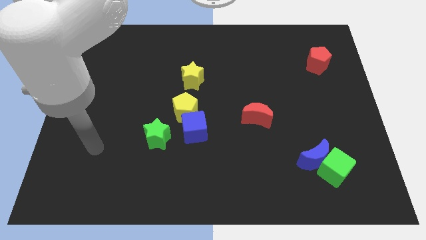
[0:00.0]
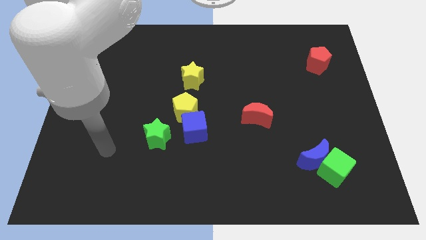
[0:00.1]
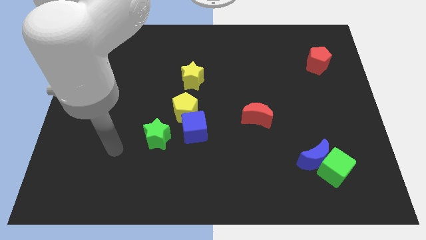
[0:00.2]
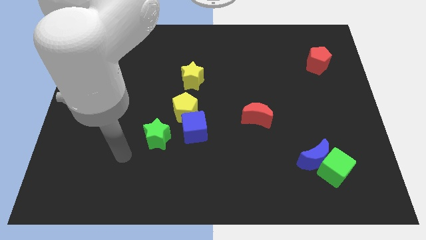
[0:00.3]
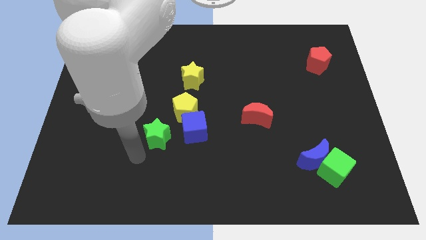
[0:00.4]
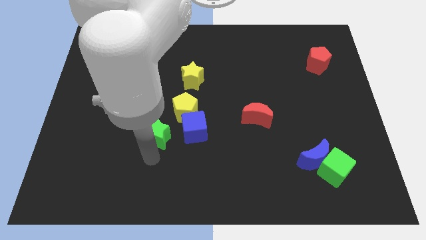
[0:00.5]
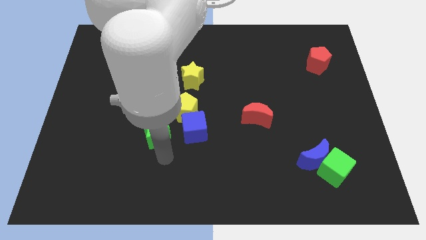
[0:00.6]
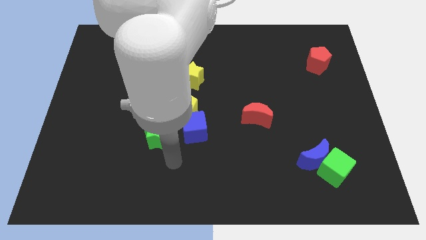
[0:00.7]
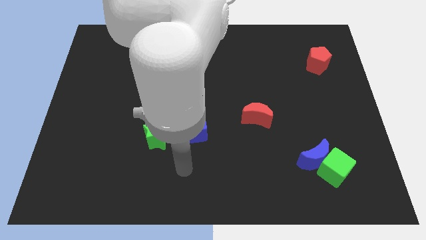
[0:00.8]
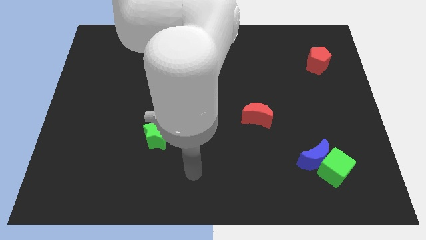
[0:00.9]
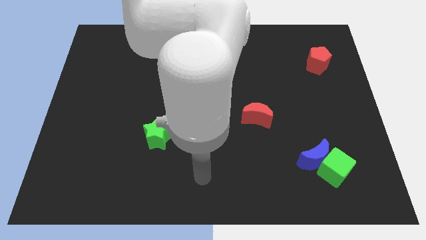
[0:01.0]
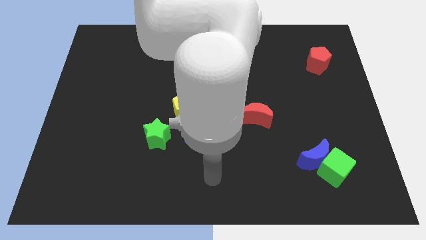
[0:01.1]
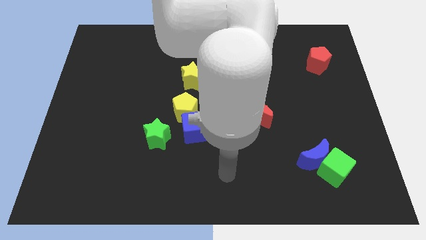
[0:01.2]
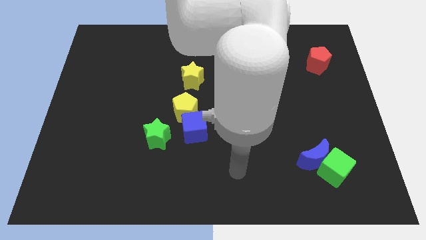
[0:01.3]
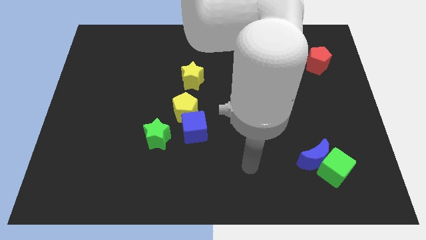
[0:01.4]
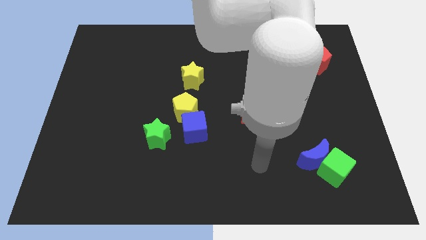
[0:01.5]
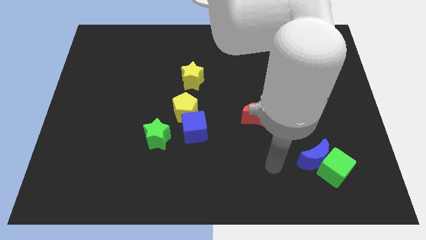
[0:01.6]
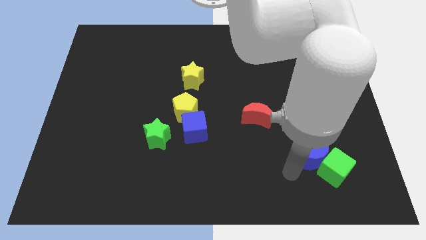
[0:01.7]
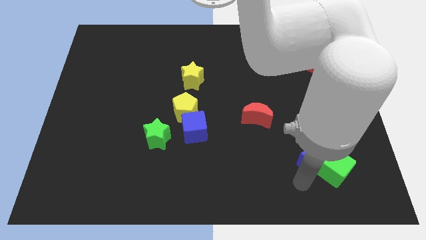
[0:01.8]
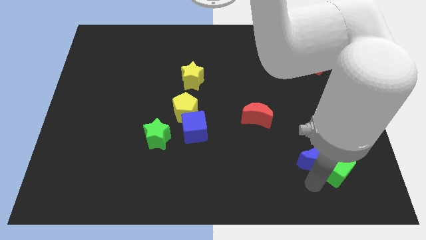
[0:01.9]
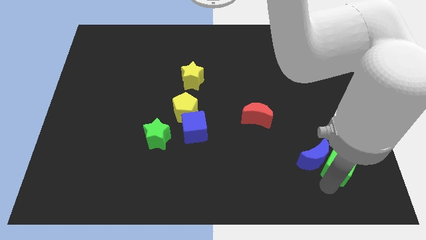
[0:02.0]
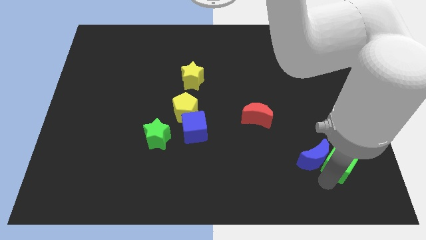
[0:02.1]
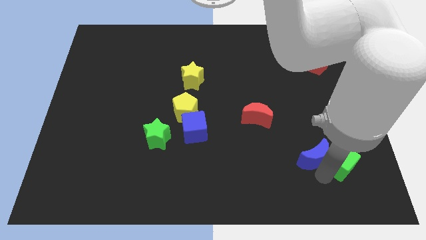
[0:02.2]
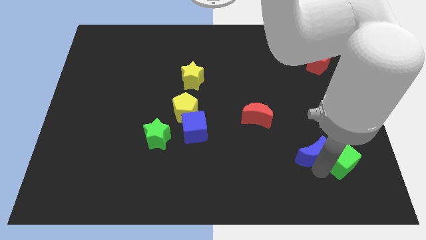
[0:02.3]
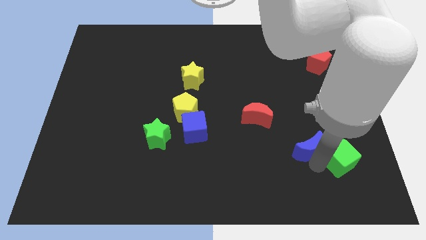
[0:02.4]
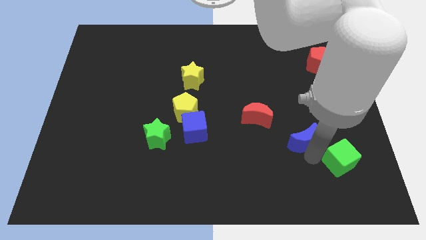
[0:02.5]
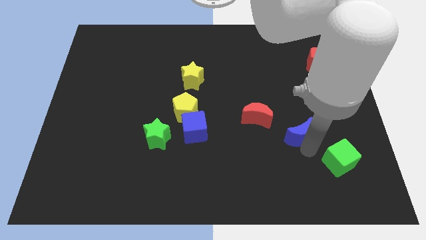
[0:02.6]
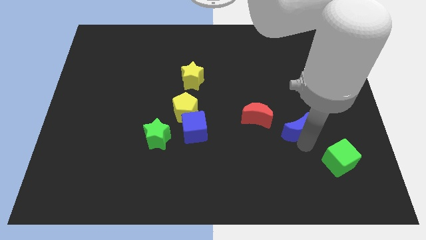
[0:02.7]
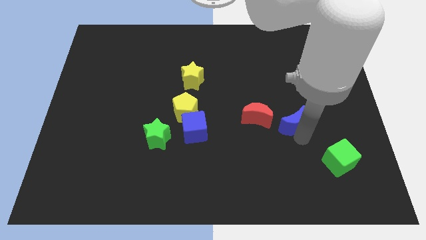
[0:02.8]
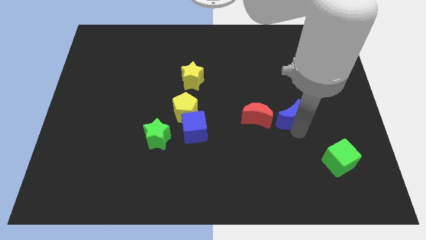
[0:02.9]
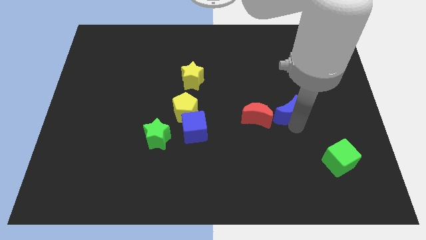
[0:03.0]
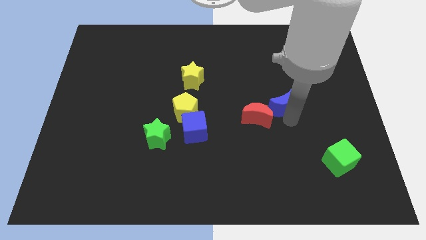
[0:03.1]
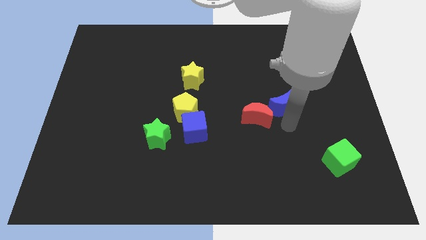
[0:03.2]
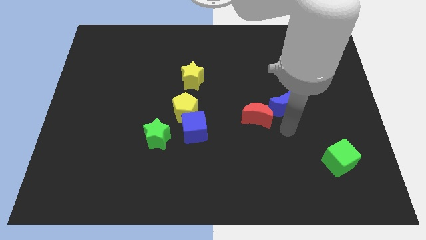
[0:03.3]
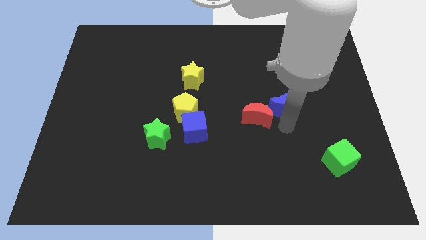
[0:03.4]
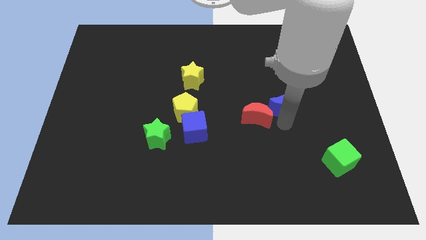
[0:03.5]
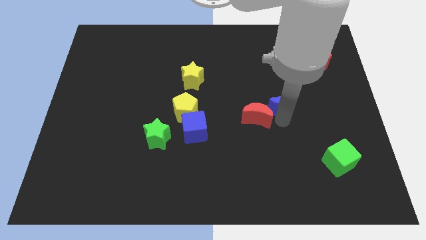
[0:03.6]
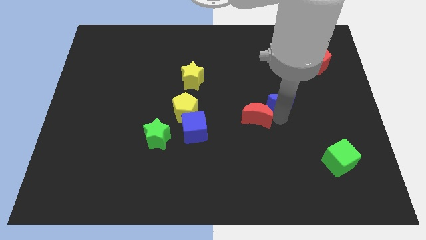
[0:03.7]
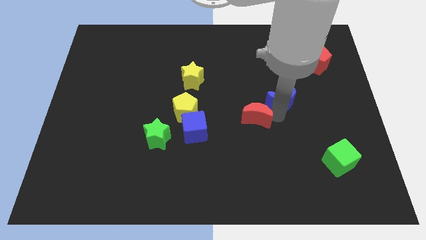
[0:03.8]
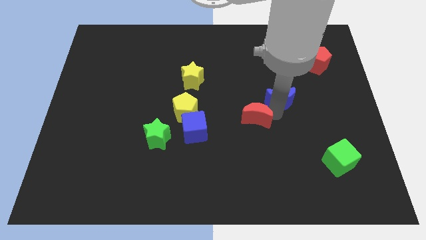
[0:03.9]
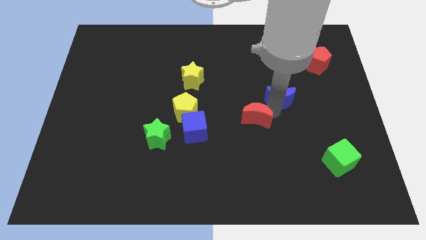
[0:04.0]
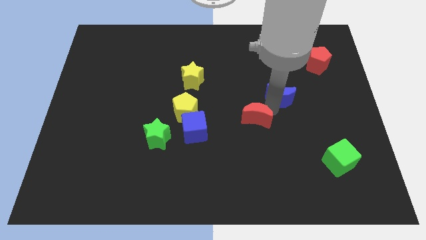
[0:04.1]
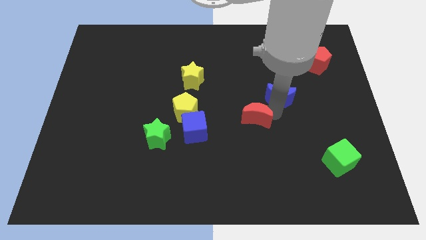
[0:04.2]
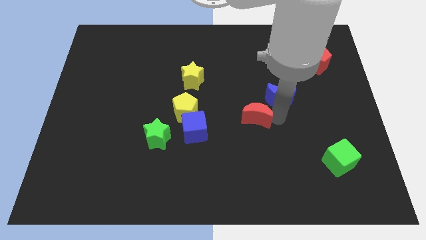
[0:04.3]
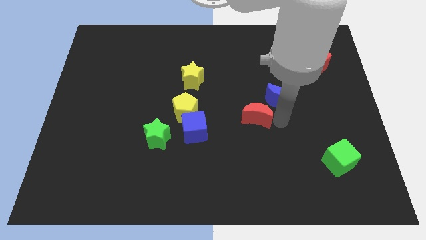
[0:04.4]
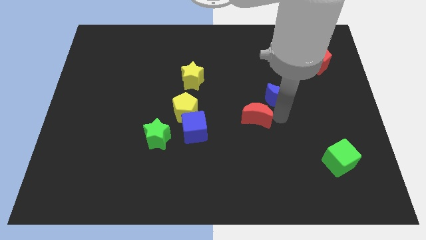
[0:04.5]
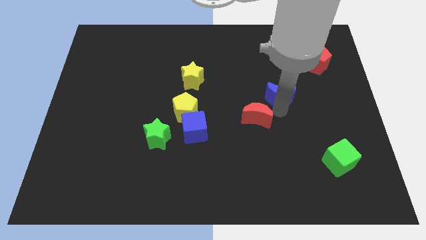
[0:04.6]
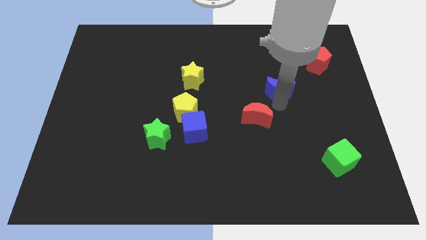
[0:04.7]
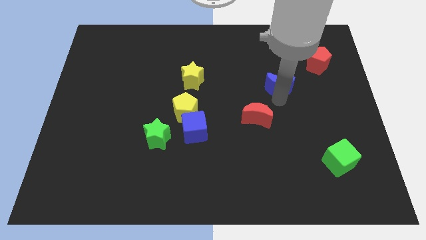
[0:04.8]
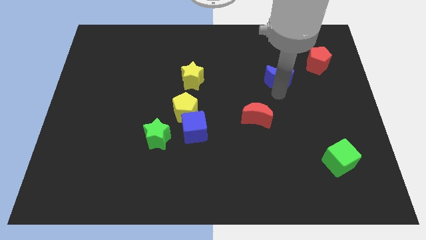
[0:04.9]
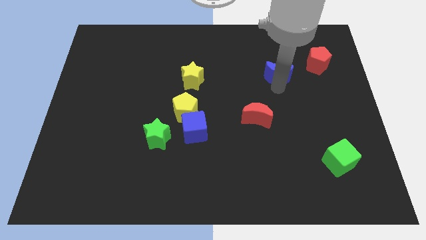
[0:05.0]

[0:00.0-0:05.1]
put the blue moon left of the red pentagon

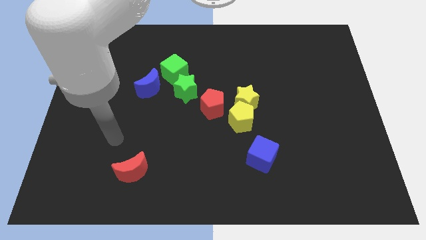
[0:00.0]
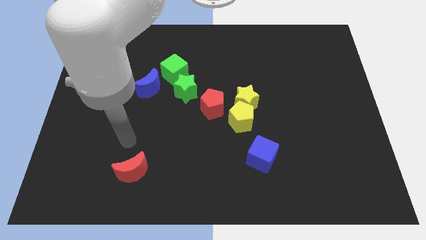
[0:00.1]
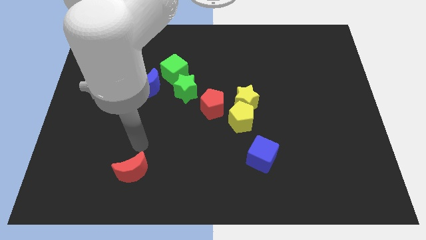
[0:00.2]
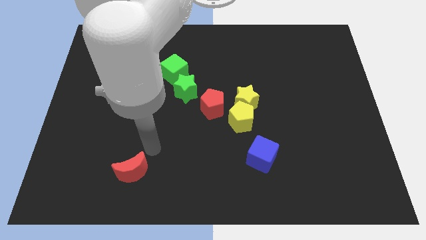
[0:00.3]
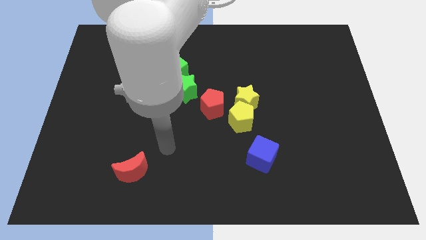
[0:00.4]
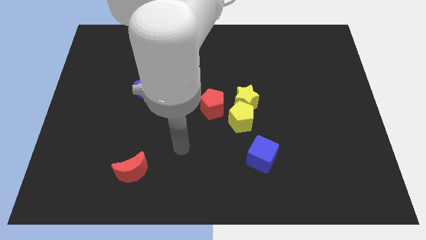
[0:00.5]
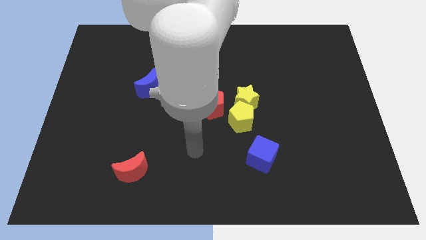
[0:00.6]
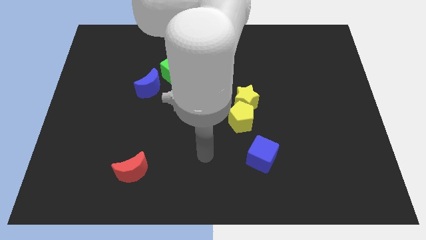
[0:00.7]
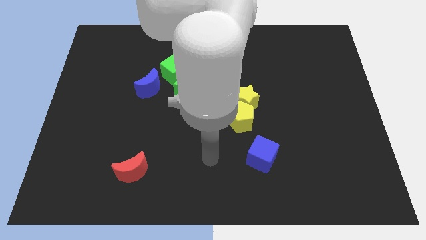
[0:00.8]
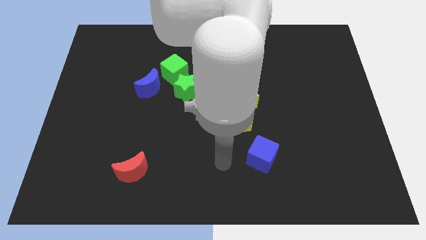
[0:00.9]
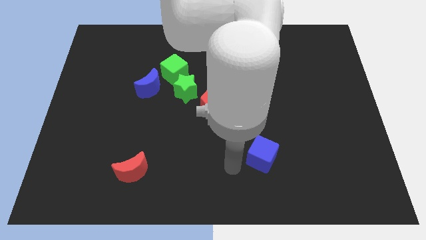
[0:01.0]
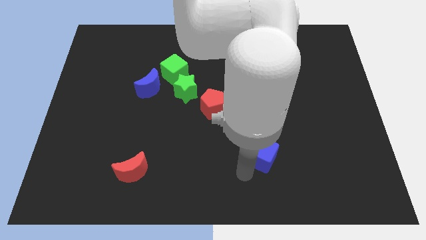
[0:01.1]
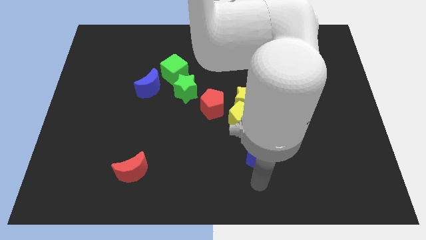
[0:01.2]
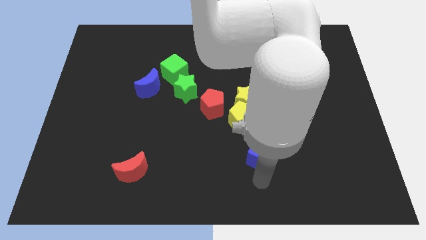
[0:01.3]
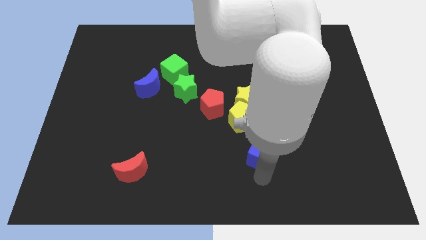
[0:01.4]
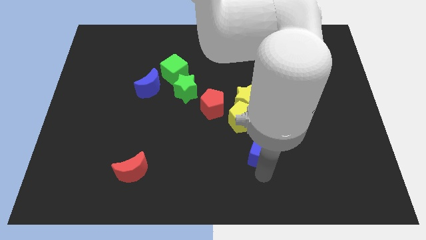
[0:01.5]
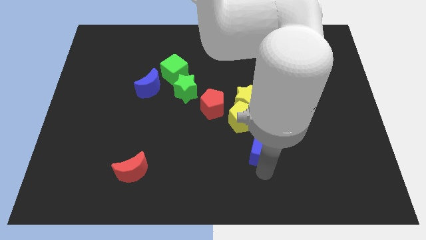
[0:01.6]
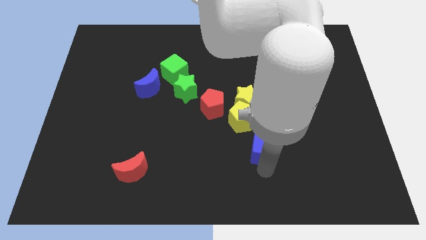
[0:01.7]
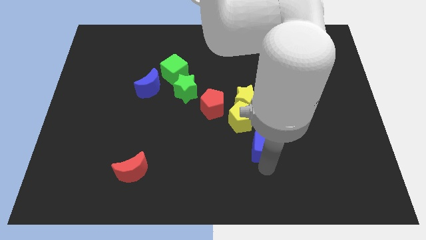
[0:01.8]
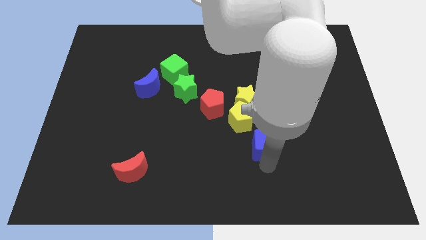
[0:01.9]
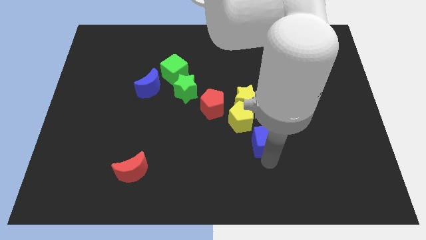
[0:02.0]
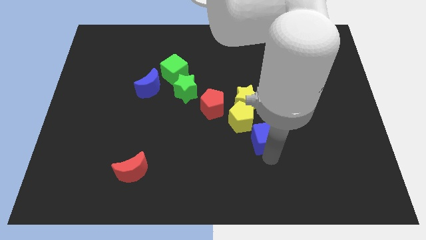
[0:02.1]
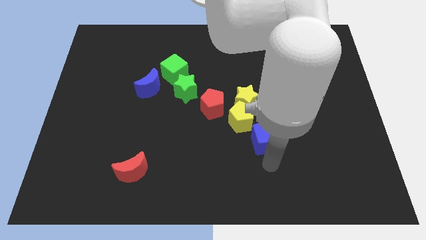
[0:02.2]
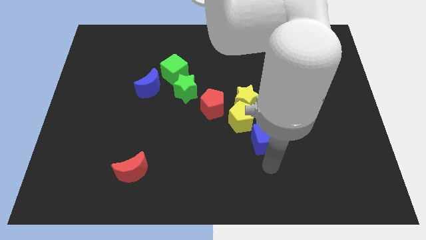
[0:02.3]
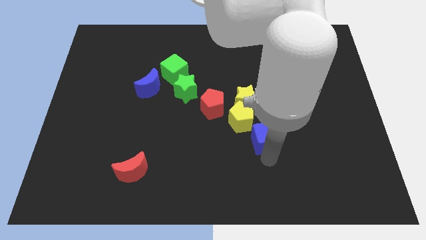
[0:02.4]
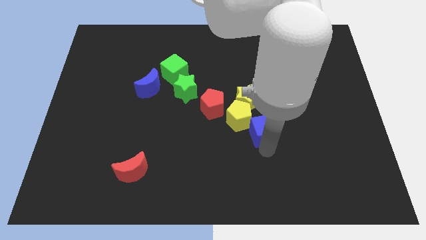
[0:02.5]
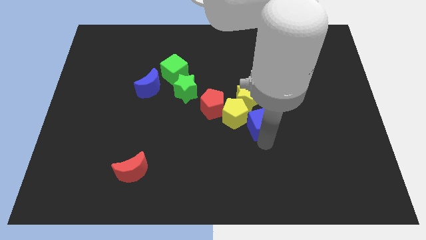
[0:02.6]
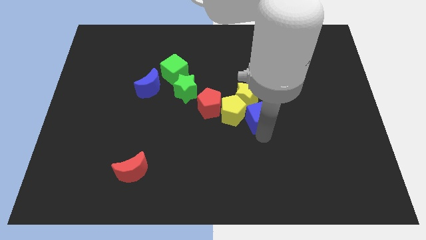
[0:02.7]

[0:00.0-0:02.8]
move the blue cube to the right of the red pentagon
